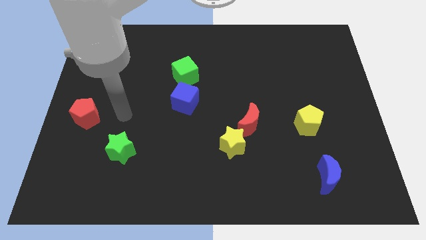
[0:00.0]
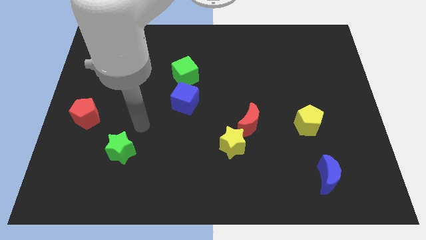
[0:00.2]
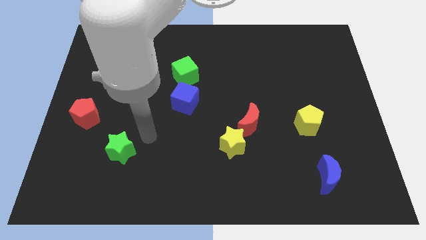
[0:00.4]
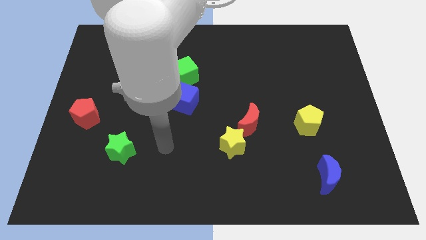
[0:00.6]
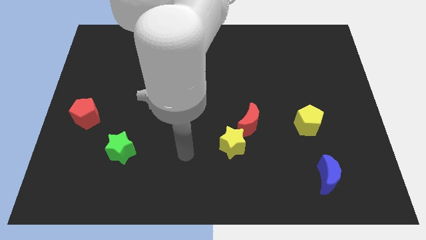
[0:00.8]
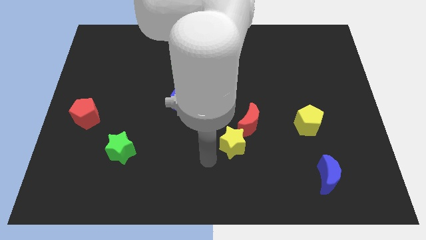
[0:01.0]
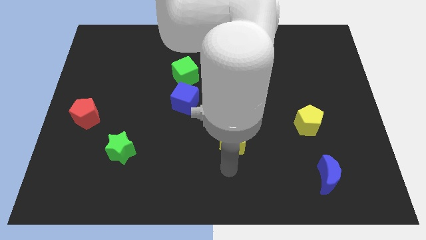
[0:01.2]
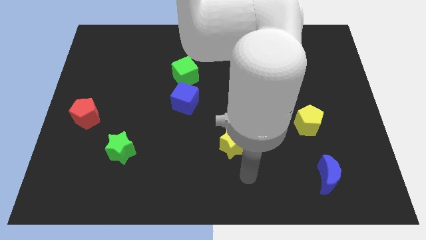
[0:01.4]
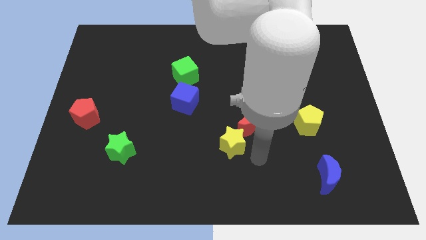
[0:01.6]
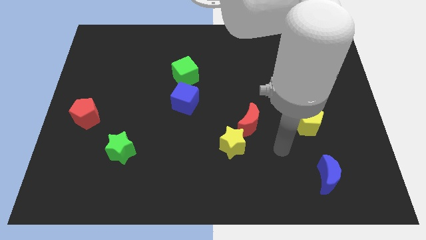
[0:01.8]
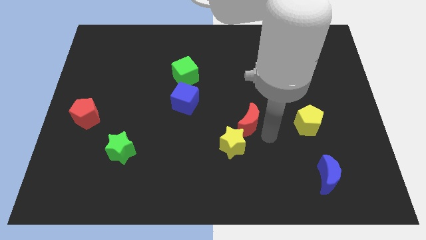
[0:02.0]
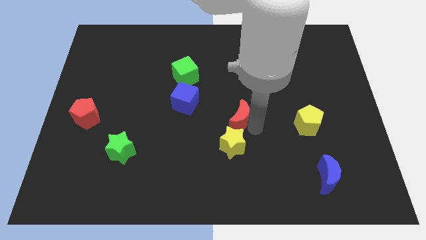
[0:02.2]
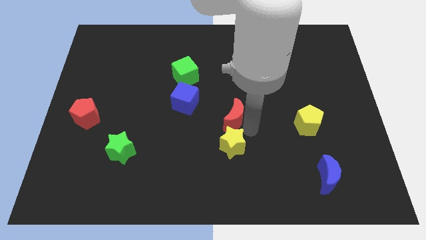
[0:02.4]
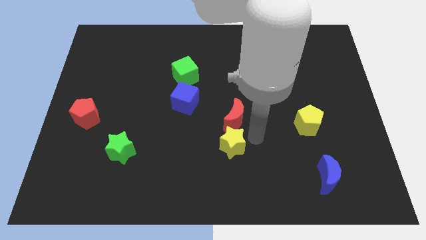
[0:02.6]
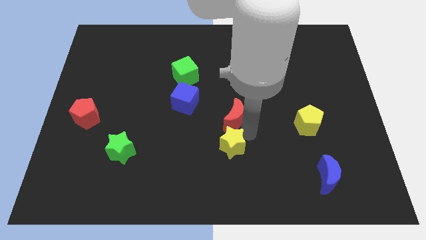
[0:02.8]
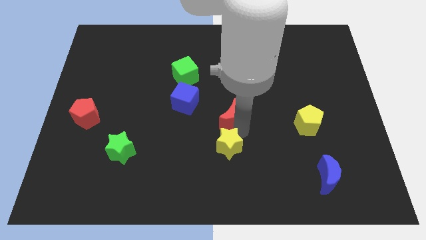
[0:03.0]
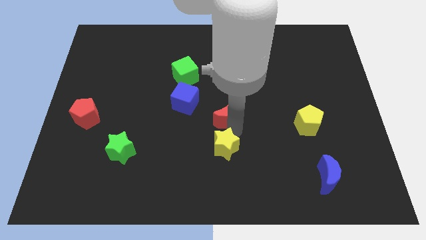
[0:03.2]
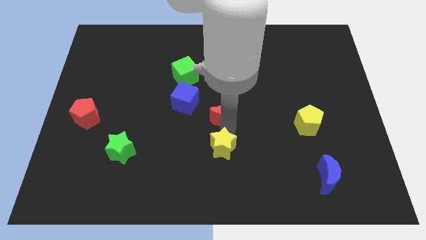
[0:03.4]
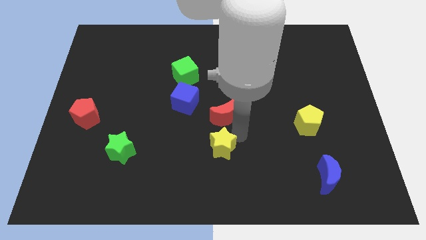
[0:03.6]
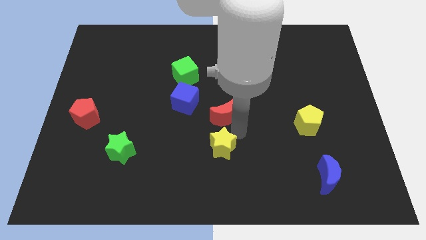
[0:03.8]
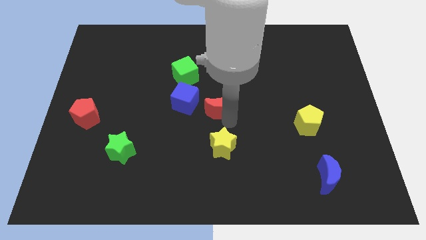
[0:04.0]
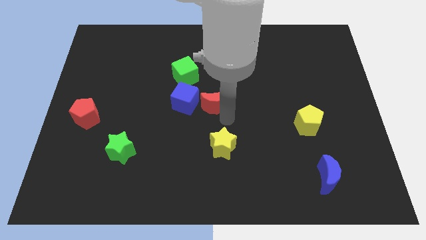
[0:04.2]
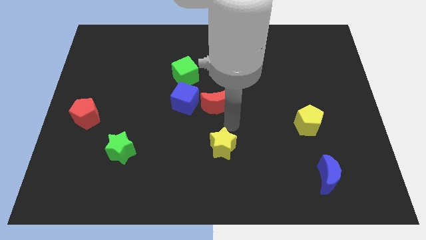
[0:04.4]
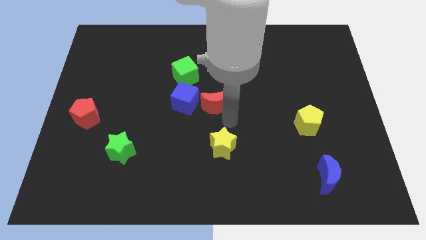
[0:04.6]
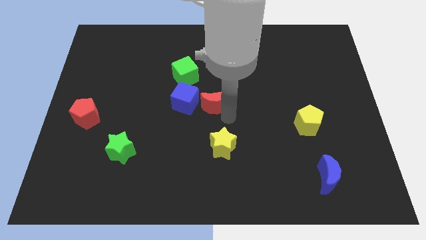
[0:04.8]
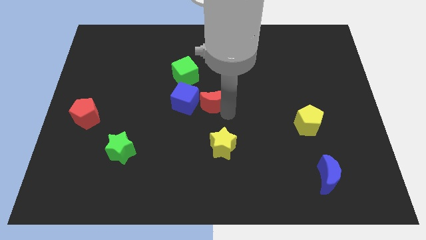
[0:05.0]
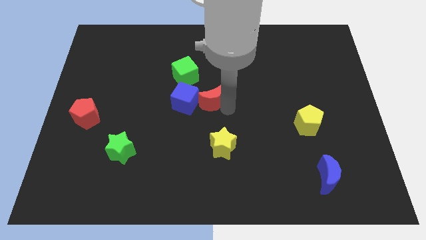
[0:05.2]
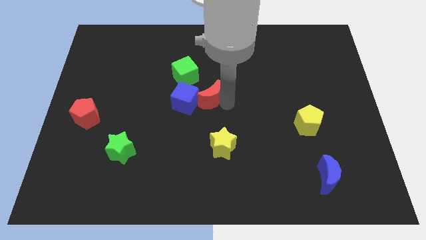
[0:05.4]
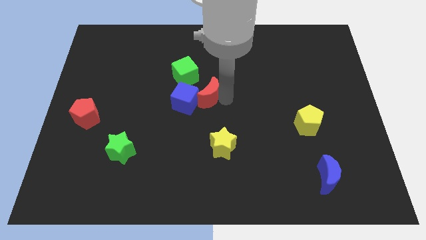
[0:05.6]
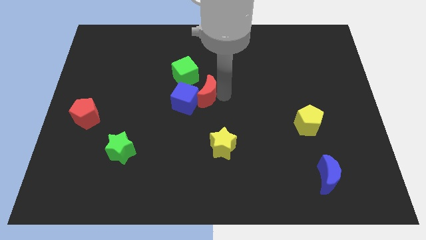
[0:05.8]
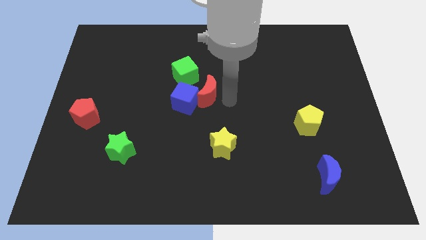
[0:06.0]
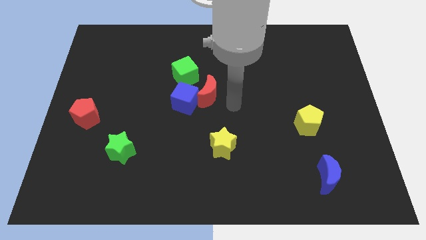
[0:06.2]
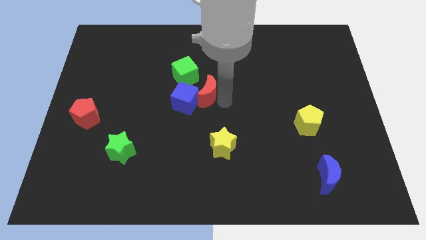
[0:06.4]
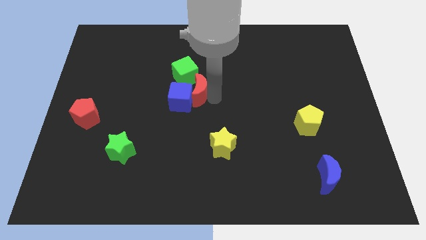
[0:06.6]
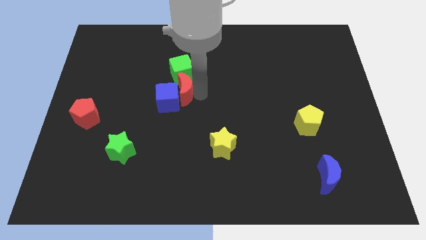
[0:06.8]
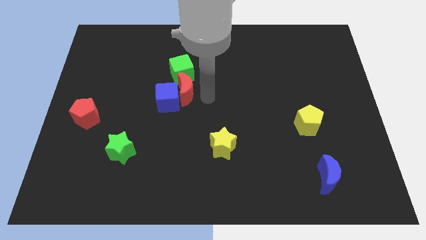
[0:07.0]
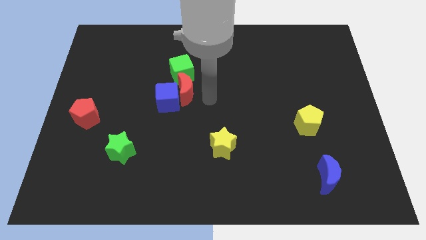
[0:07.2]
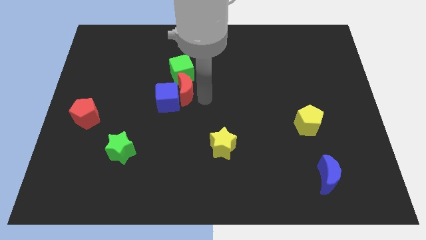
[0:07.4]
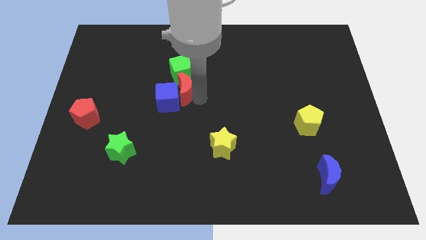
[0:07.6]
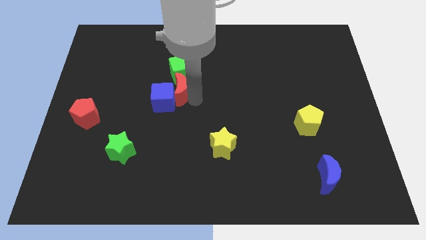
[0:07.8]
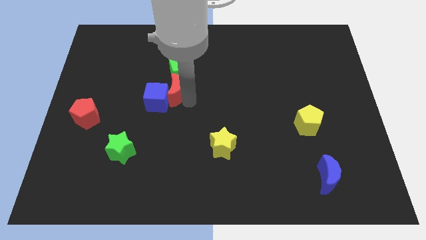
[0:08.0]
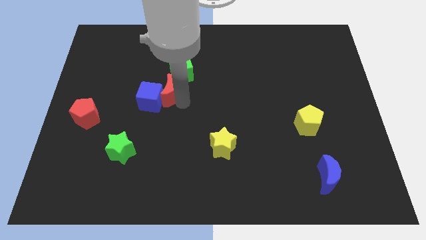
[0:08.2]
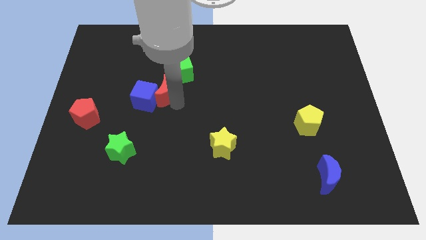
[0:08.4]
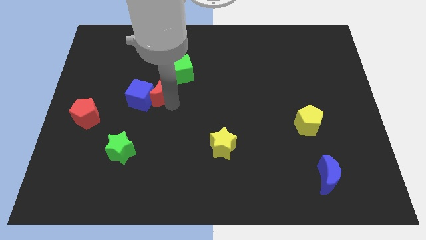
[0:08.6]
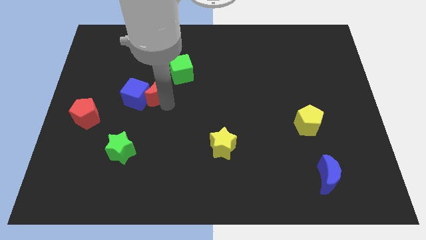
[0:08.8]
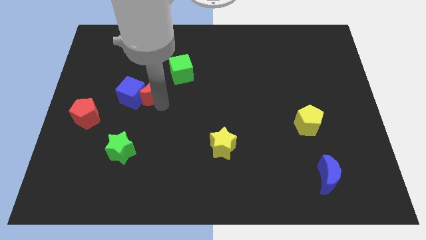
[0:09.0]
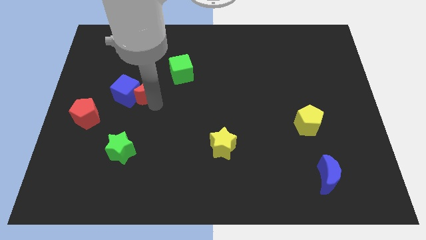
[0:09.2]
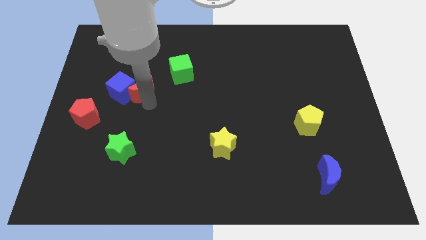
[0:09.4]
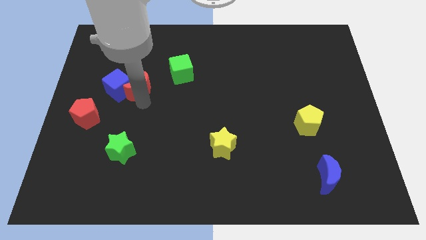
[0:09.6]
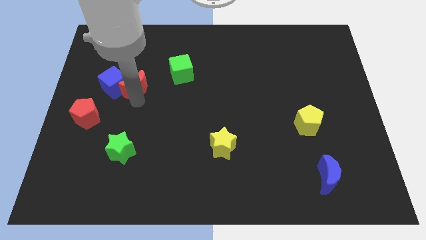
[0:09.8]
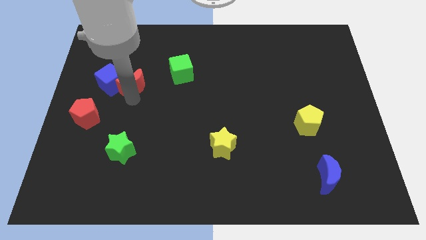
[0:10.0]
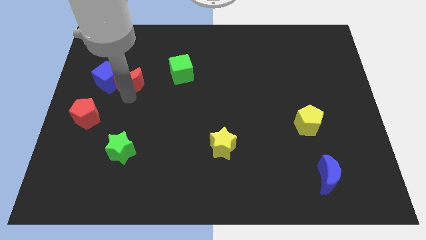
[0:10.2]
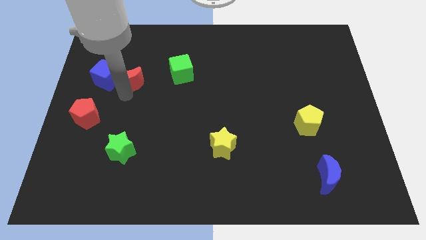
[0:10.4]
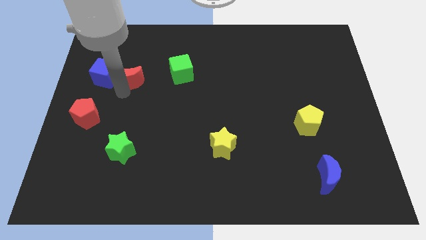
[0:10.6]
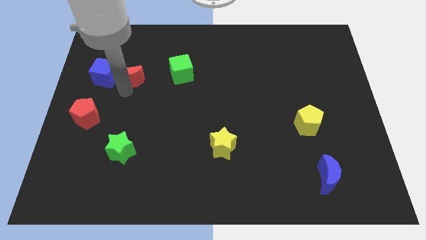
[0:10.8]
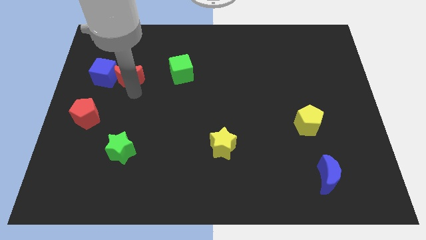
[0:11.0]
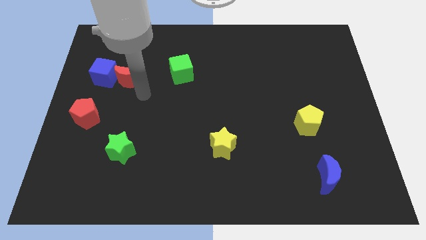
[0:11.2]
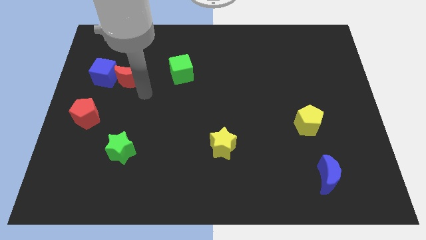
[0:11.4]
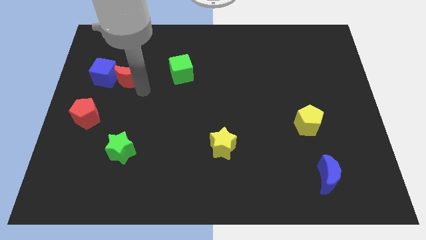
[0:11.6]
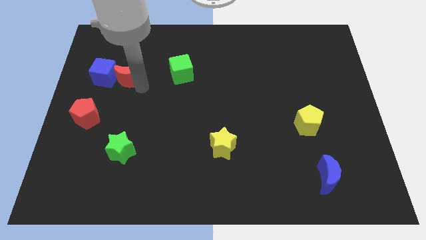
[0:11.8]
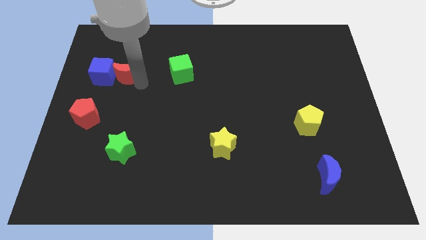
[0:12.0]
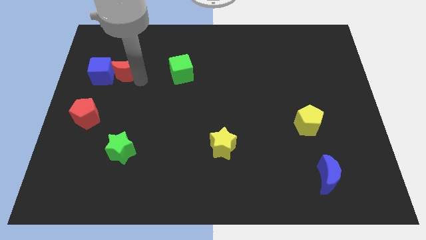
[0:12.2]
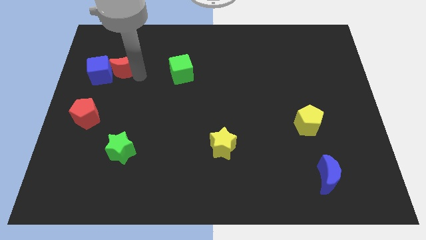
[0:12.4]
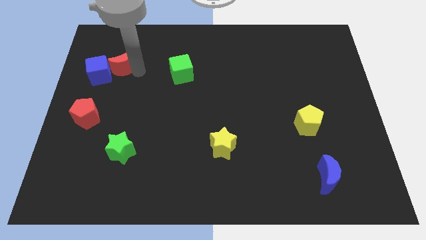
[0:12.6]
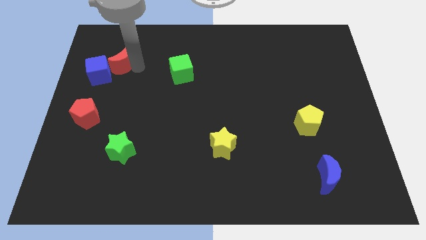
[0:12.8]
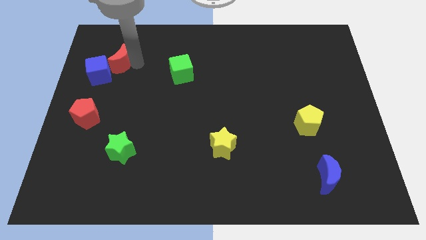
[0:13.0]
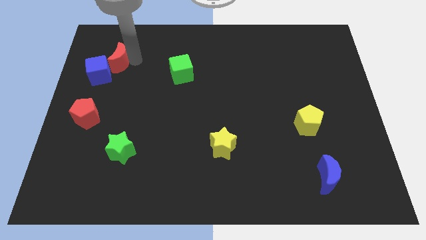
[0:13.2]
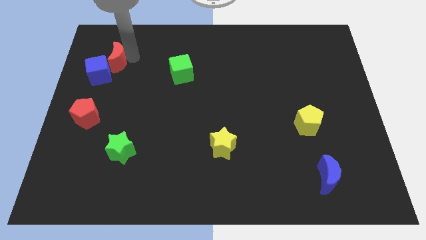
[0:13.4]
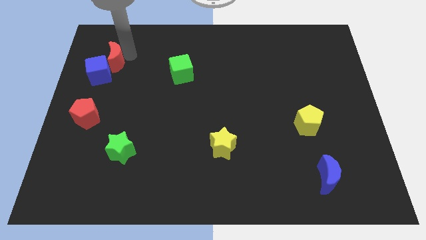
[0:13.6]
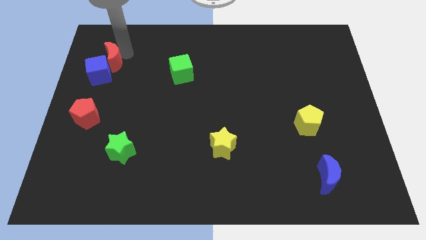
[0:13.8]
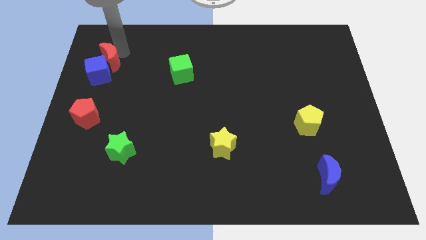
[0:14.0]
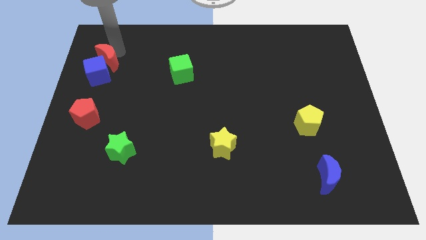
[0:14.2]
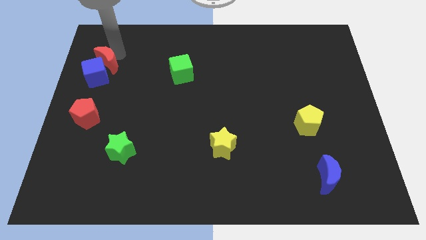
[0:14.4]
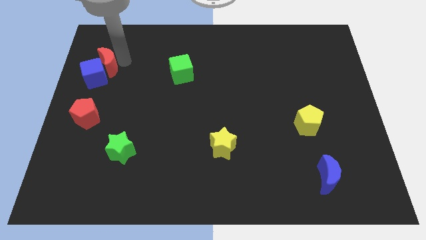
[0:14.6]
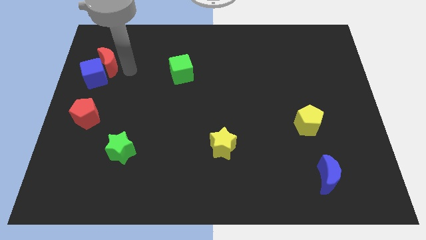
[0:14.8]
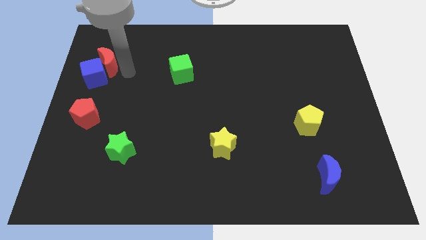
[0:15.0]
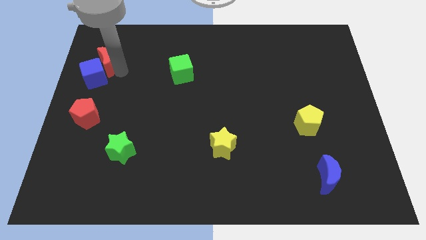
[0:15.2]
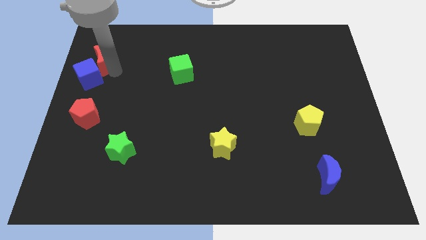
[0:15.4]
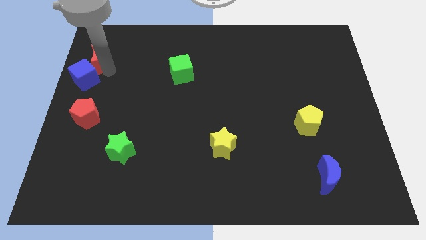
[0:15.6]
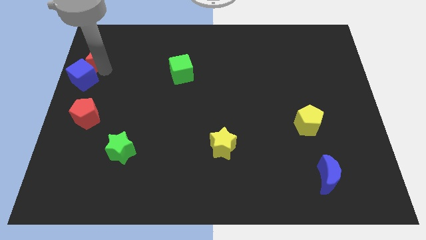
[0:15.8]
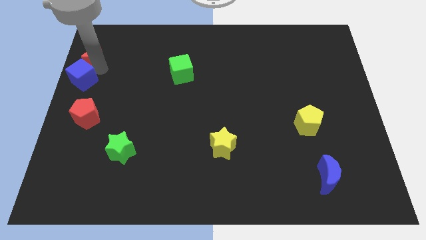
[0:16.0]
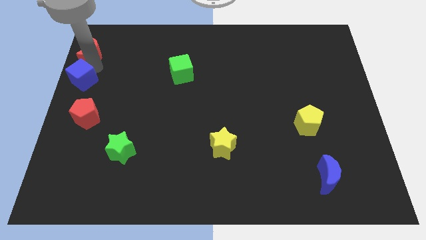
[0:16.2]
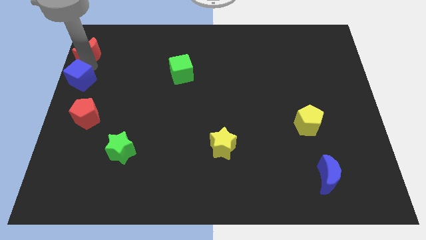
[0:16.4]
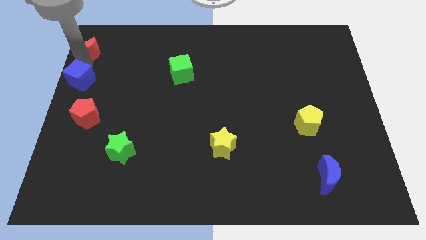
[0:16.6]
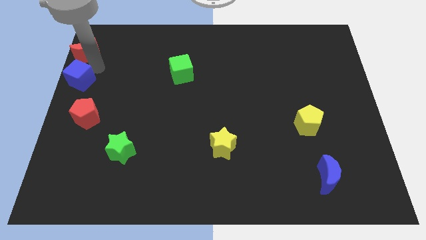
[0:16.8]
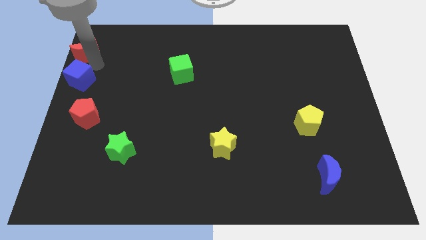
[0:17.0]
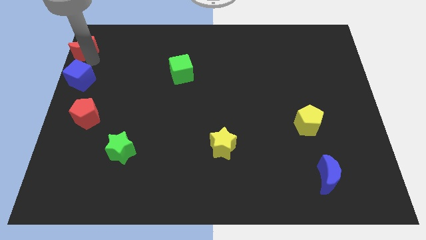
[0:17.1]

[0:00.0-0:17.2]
put the red moon to the top left of the board
